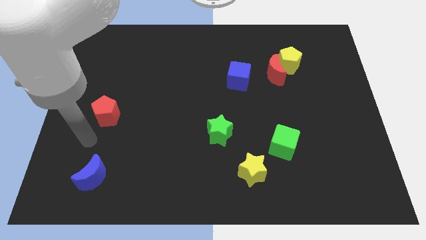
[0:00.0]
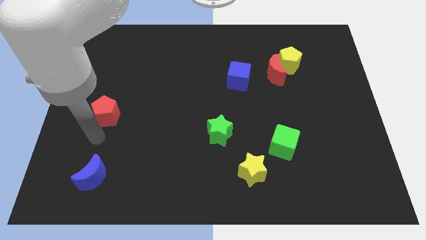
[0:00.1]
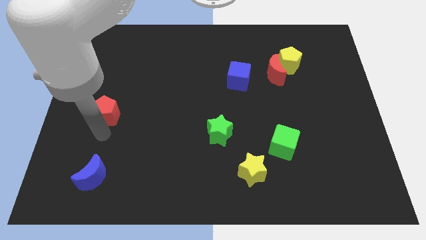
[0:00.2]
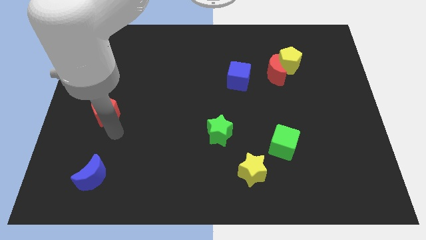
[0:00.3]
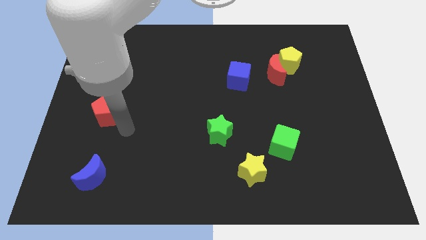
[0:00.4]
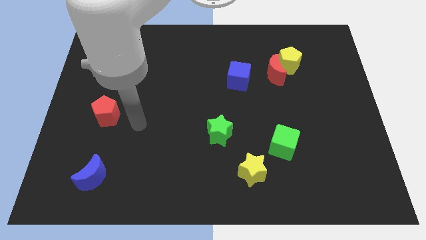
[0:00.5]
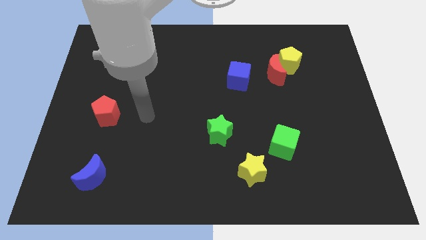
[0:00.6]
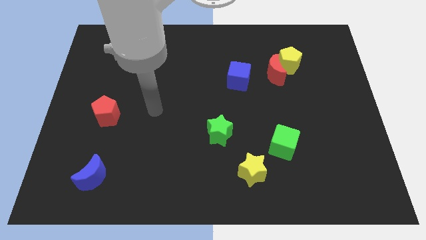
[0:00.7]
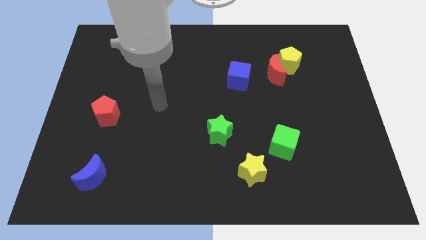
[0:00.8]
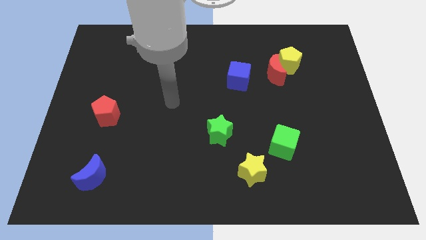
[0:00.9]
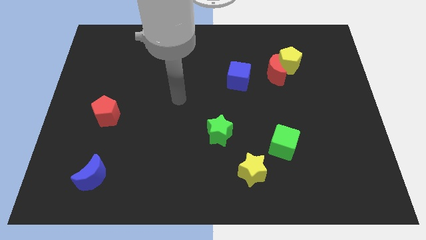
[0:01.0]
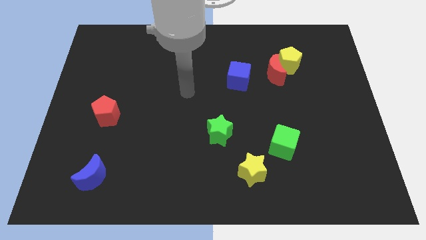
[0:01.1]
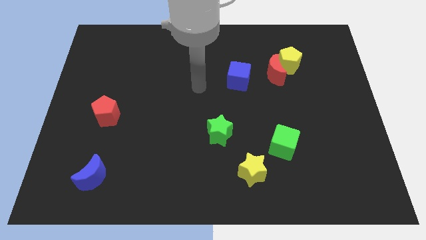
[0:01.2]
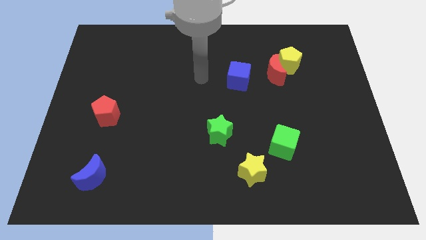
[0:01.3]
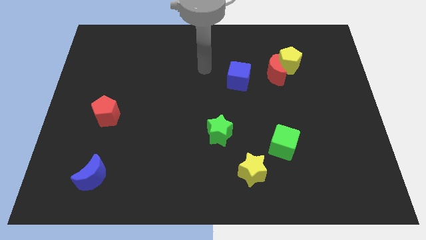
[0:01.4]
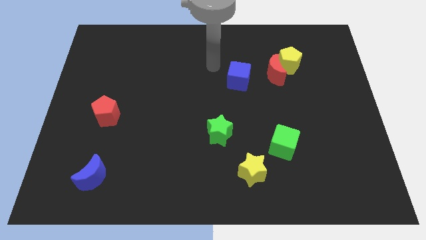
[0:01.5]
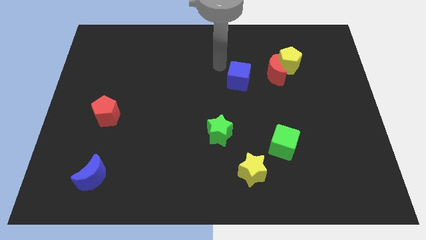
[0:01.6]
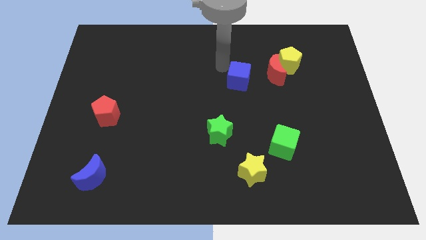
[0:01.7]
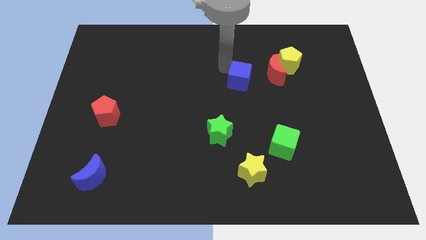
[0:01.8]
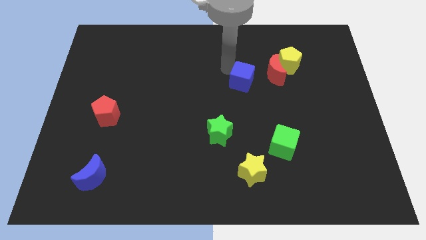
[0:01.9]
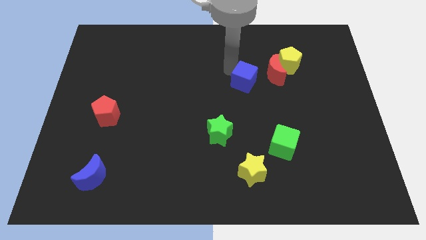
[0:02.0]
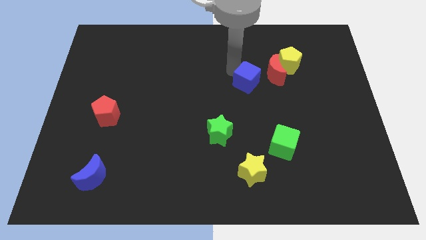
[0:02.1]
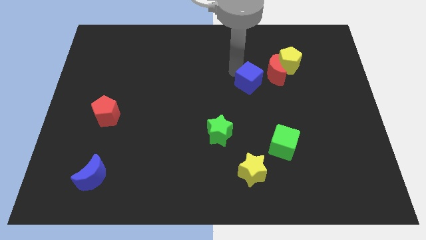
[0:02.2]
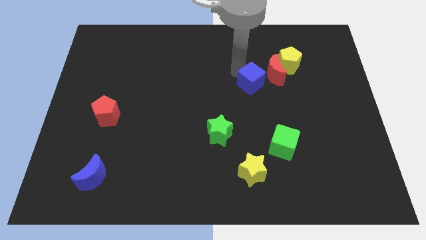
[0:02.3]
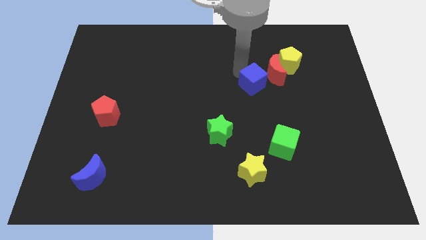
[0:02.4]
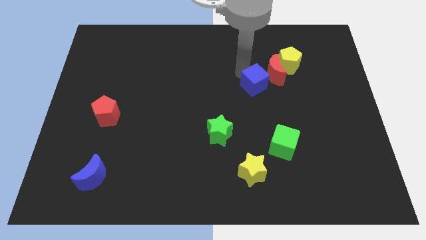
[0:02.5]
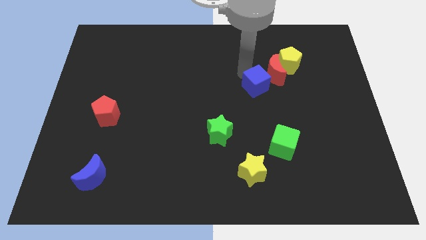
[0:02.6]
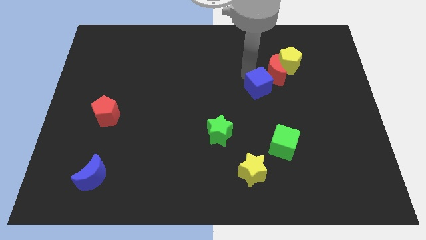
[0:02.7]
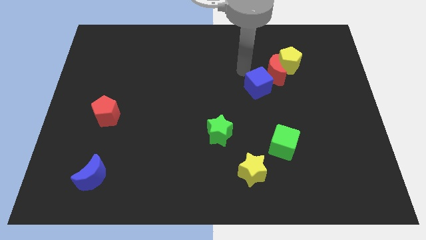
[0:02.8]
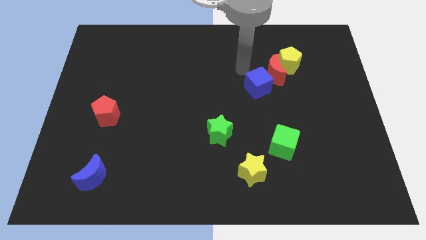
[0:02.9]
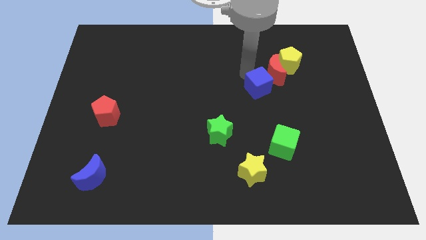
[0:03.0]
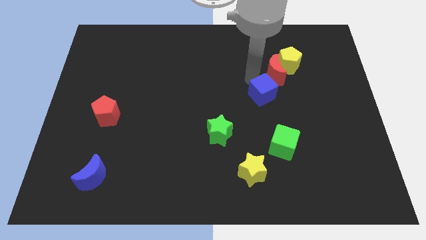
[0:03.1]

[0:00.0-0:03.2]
slide the blue cube downwards and right diagonally somewhat

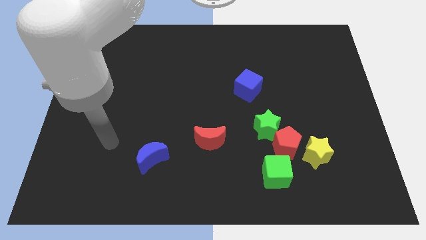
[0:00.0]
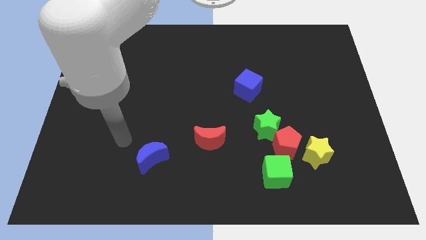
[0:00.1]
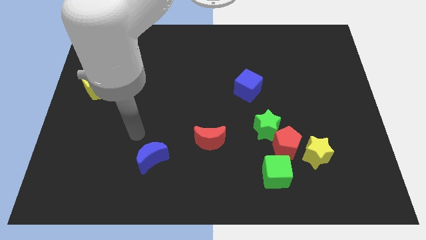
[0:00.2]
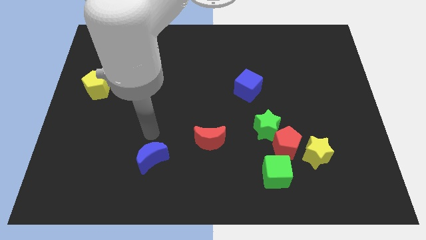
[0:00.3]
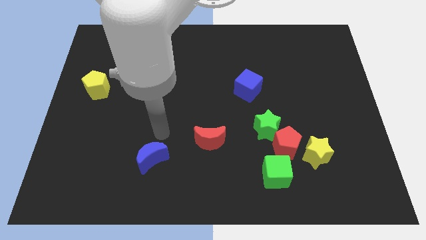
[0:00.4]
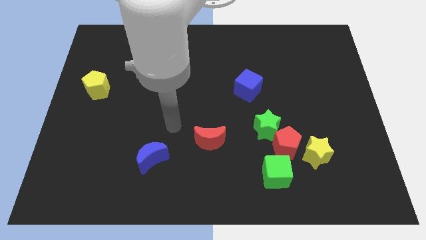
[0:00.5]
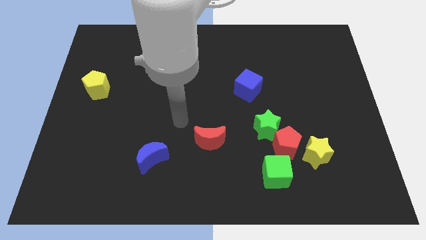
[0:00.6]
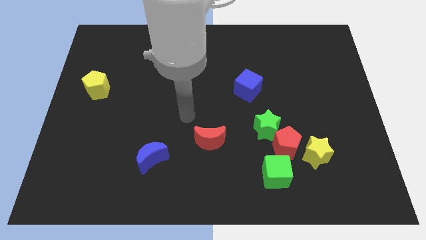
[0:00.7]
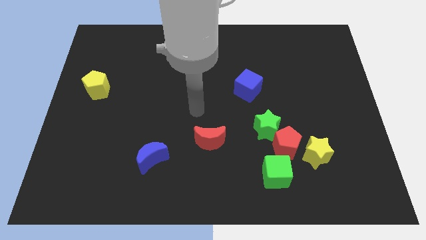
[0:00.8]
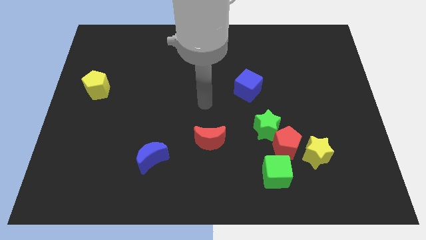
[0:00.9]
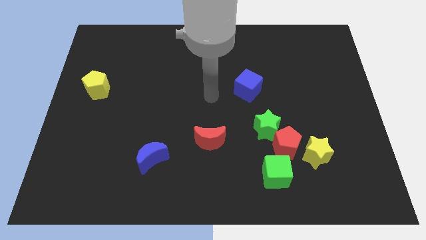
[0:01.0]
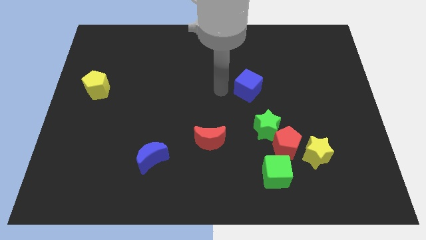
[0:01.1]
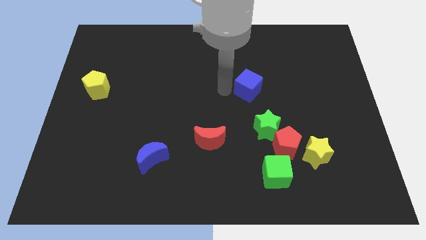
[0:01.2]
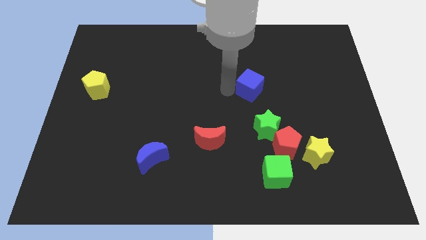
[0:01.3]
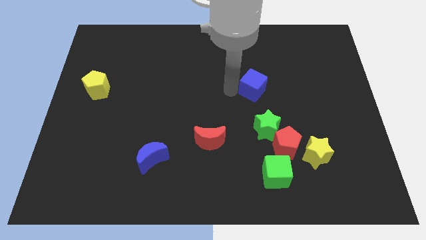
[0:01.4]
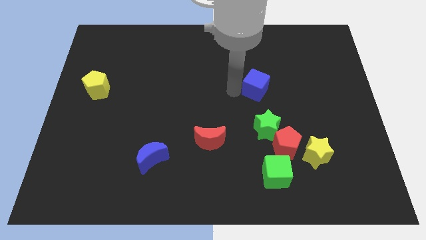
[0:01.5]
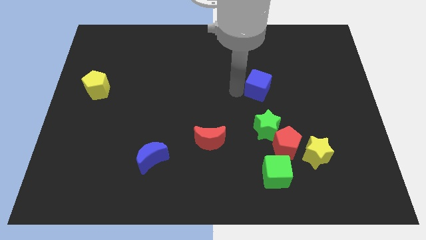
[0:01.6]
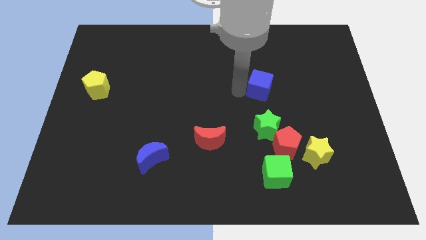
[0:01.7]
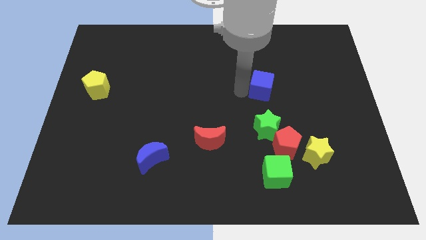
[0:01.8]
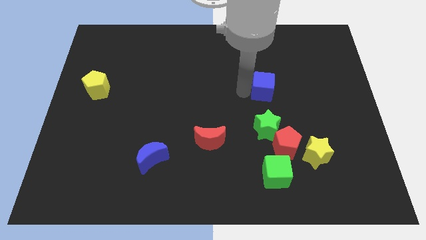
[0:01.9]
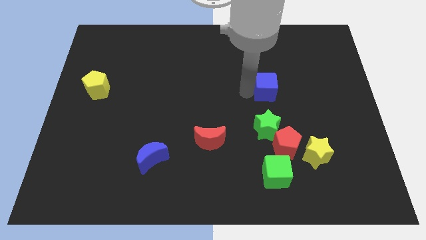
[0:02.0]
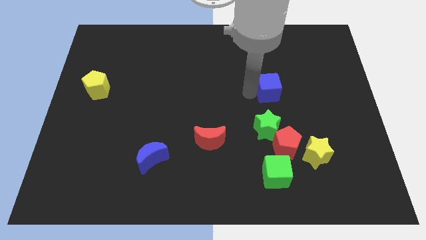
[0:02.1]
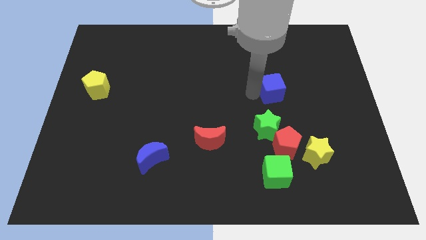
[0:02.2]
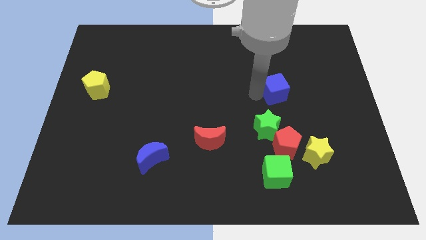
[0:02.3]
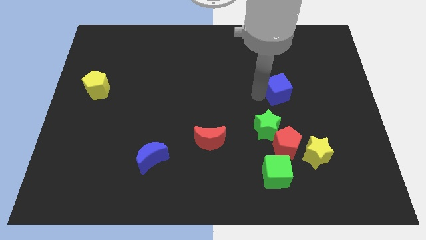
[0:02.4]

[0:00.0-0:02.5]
slide the blue cube a little bit right

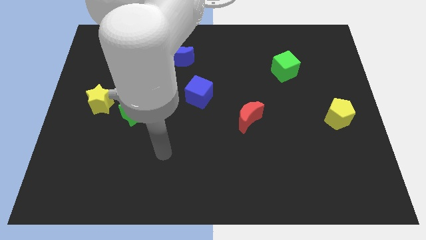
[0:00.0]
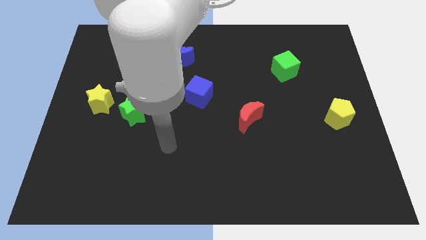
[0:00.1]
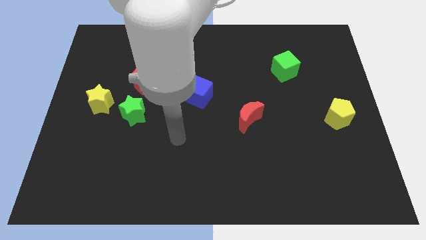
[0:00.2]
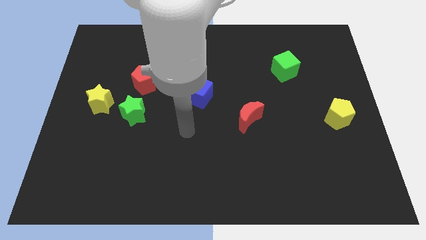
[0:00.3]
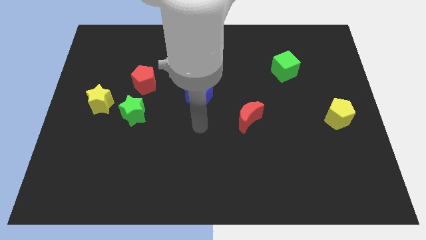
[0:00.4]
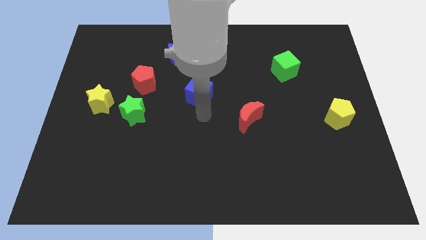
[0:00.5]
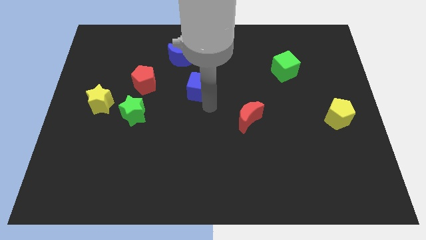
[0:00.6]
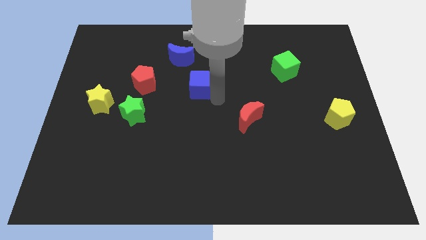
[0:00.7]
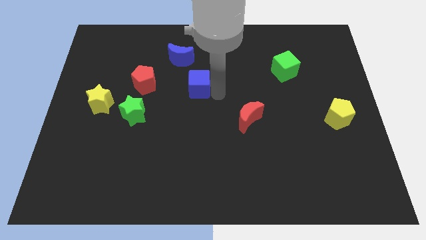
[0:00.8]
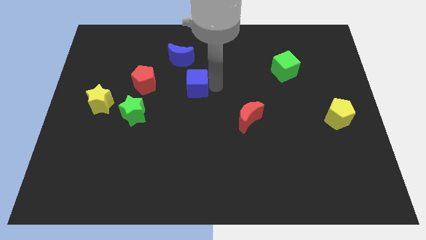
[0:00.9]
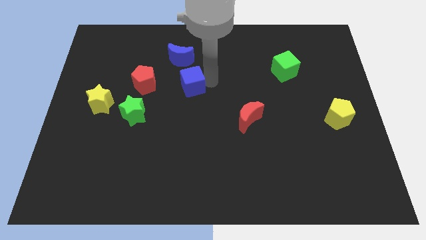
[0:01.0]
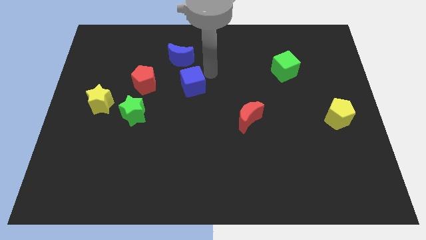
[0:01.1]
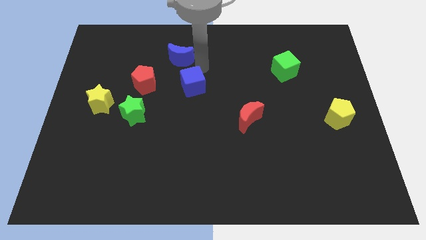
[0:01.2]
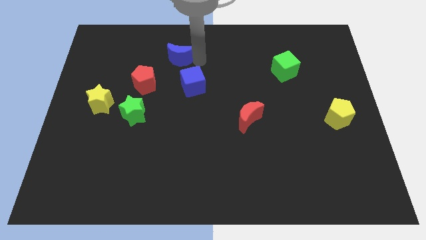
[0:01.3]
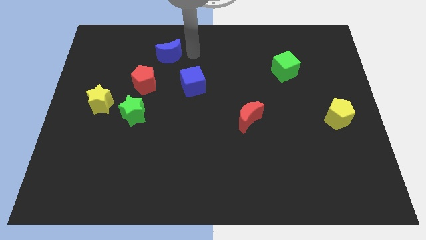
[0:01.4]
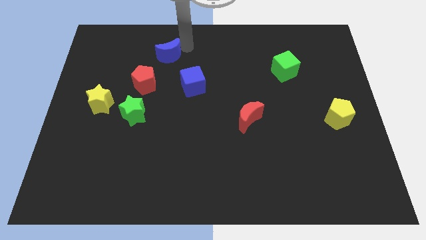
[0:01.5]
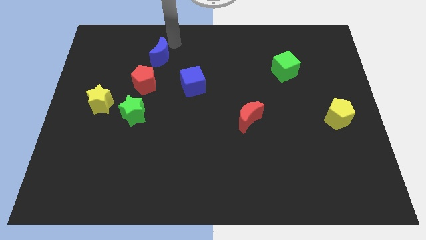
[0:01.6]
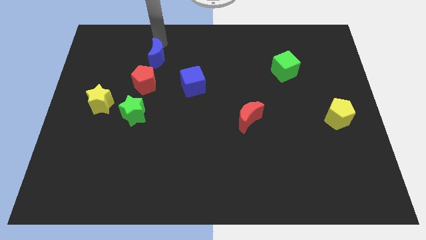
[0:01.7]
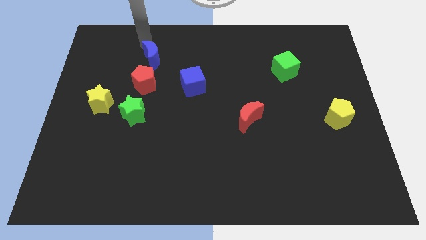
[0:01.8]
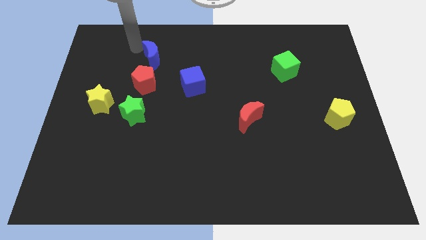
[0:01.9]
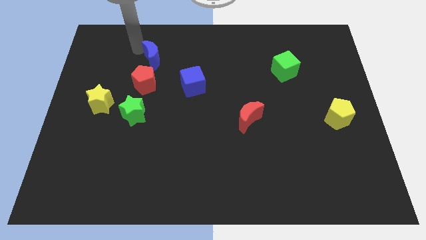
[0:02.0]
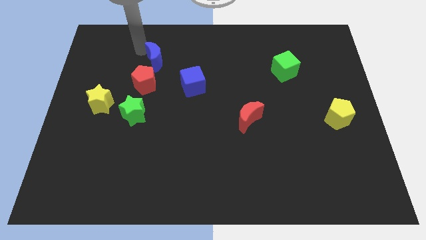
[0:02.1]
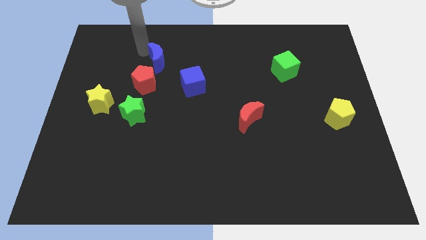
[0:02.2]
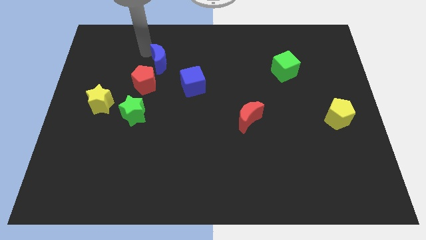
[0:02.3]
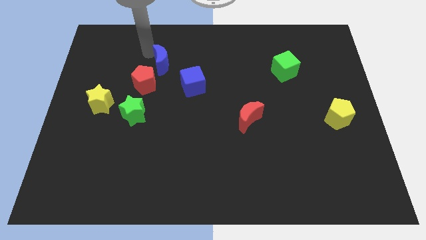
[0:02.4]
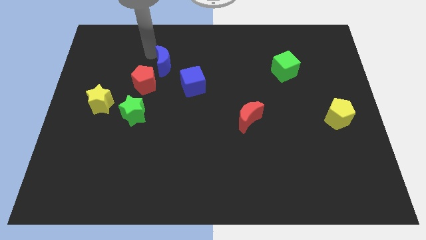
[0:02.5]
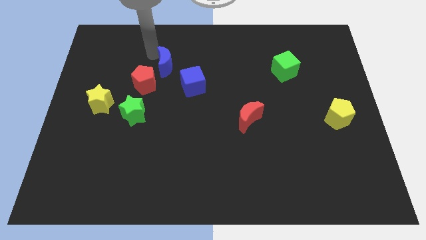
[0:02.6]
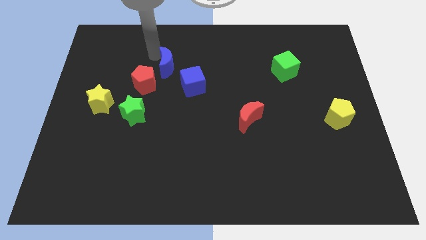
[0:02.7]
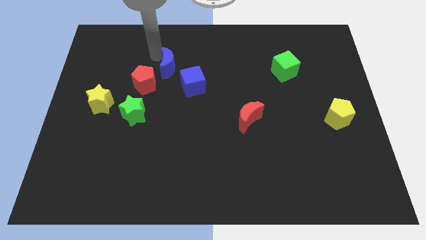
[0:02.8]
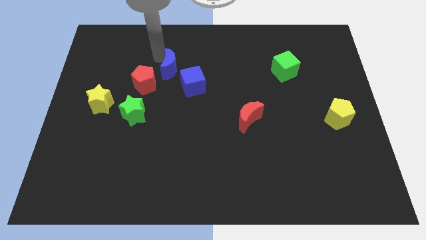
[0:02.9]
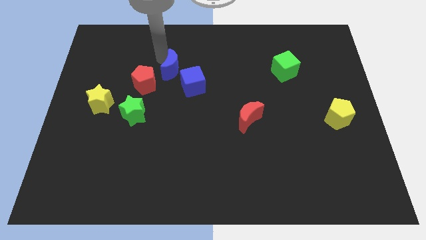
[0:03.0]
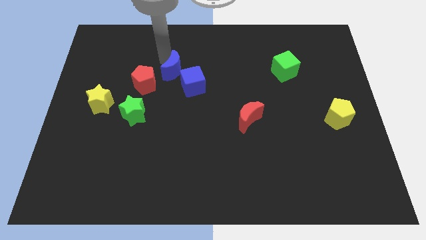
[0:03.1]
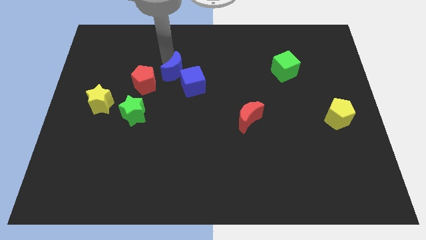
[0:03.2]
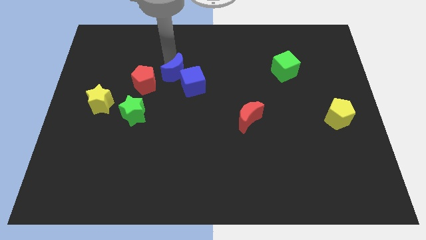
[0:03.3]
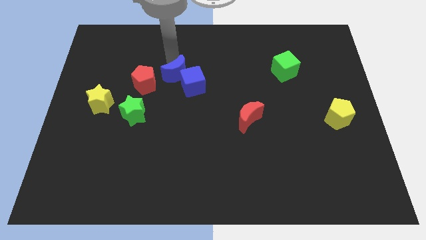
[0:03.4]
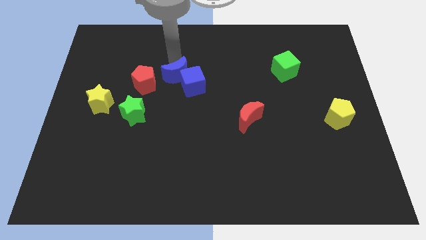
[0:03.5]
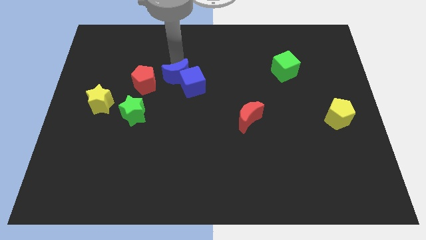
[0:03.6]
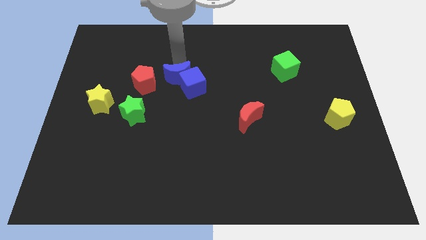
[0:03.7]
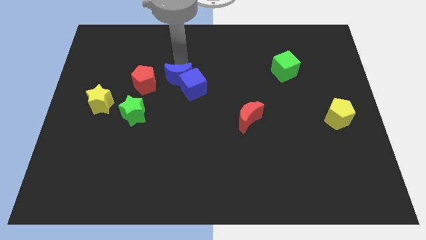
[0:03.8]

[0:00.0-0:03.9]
move the blue moon downwards slightly
